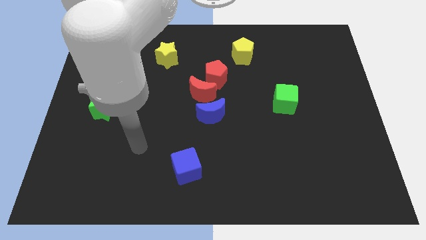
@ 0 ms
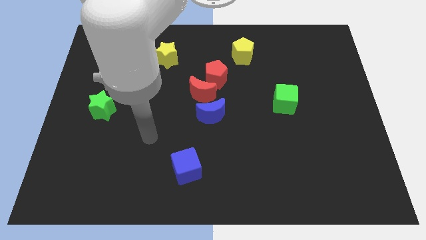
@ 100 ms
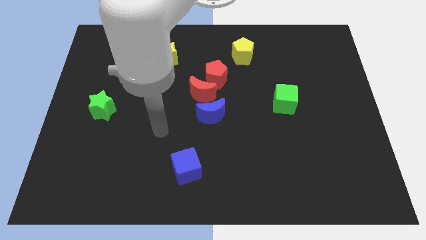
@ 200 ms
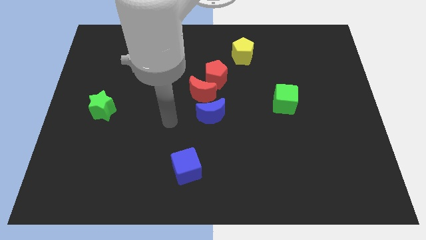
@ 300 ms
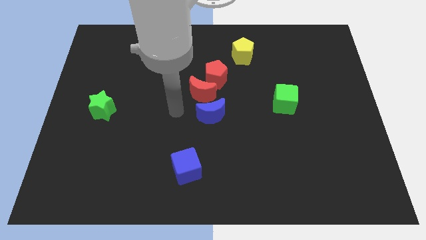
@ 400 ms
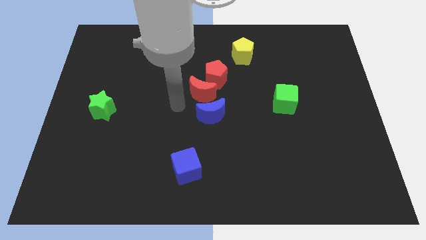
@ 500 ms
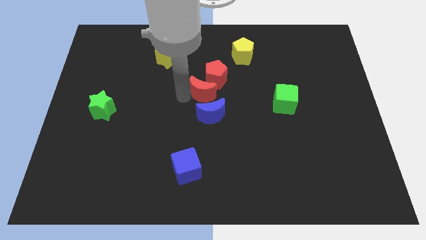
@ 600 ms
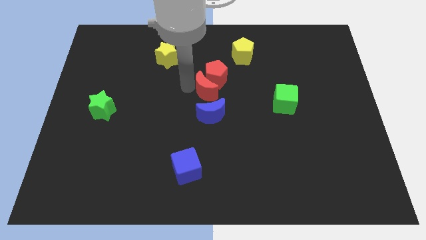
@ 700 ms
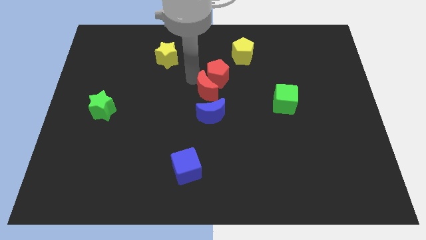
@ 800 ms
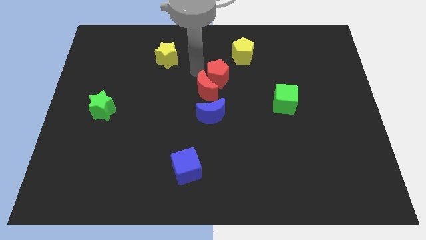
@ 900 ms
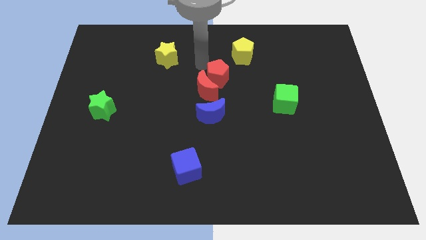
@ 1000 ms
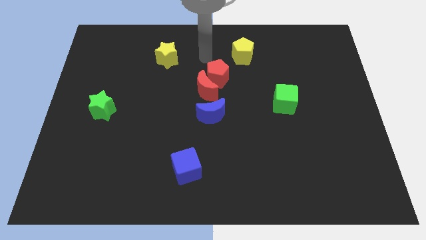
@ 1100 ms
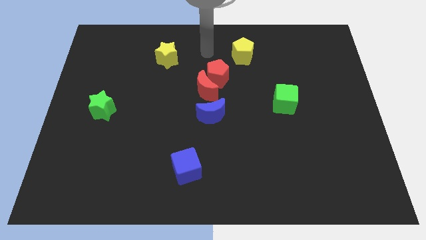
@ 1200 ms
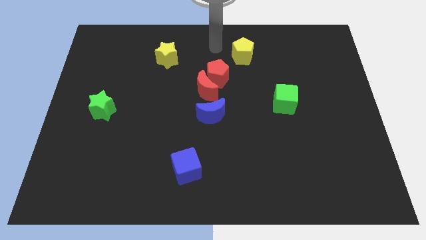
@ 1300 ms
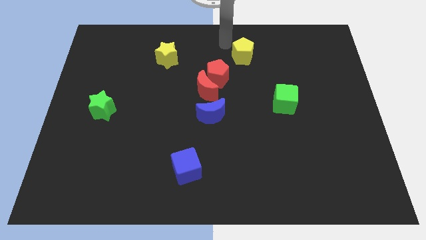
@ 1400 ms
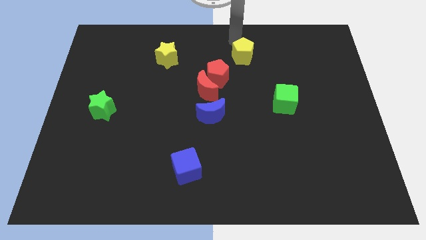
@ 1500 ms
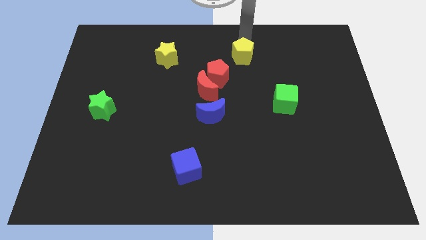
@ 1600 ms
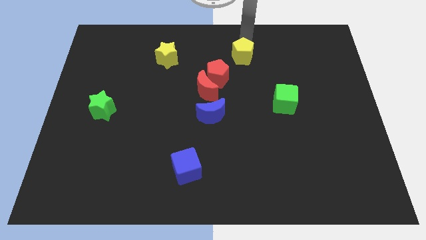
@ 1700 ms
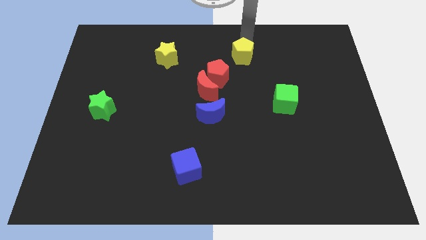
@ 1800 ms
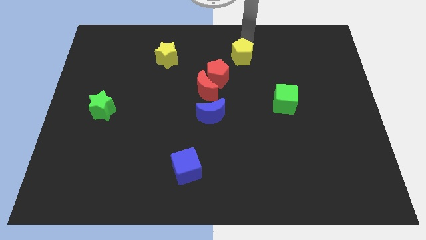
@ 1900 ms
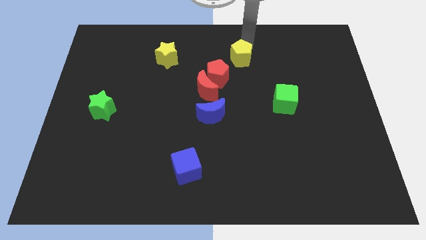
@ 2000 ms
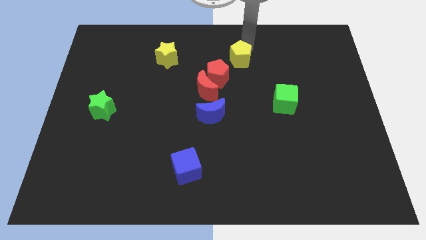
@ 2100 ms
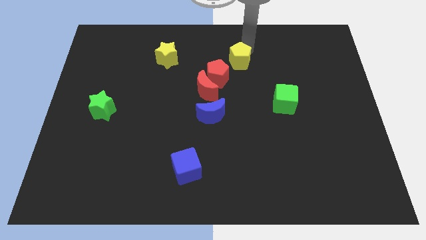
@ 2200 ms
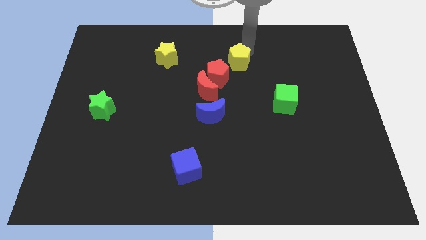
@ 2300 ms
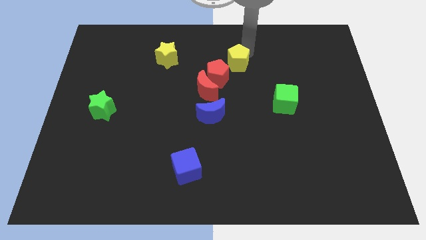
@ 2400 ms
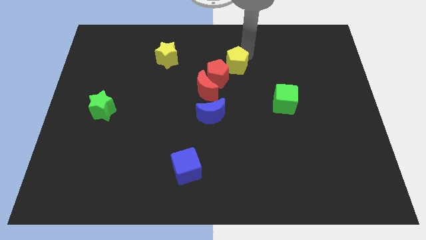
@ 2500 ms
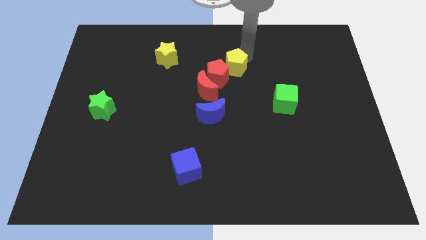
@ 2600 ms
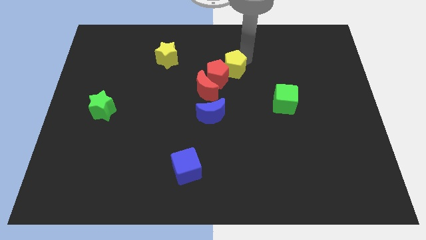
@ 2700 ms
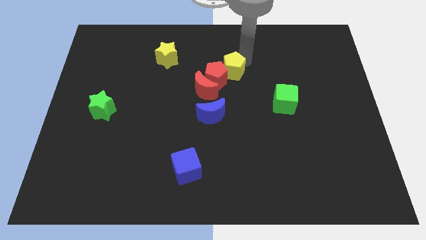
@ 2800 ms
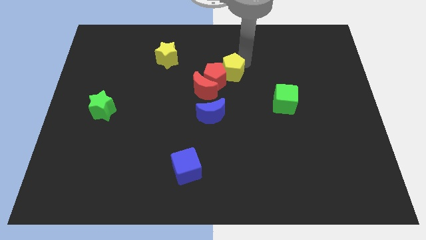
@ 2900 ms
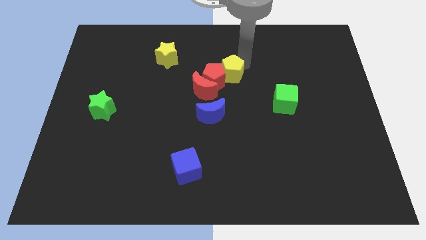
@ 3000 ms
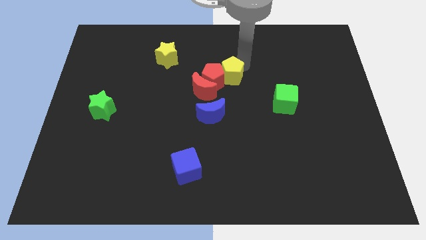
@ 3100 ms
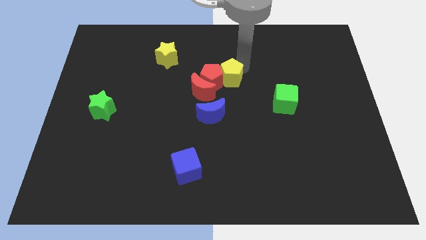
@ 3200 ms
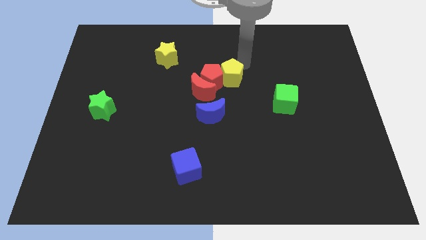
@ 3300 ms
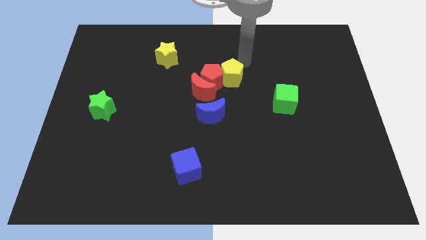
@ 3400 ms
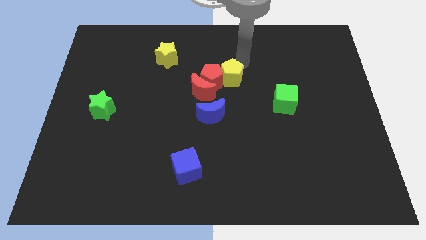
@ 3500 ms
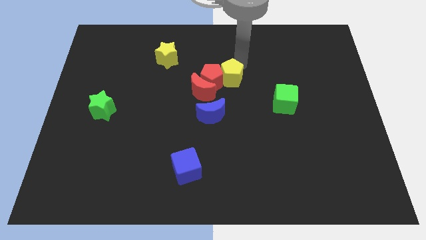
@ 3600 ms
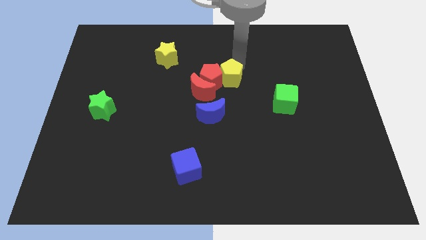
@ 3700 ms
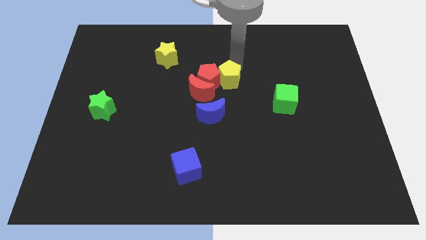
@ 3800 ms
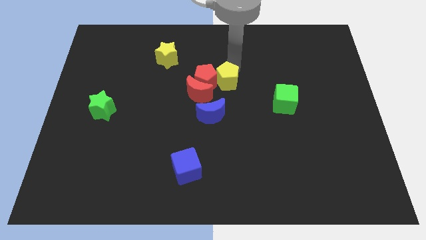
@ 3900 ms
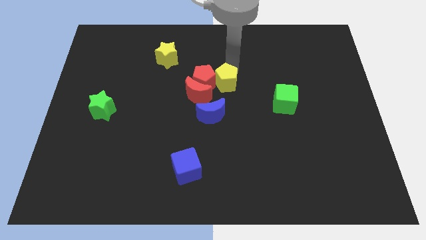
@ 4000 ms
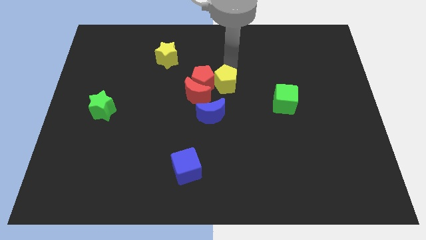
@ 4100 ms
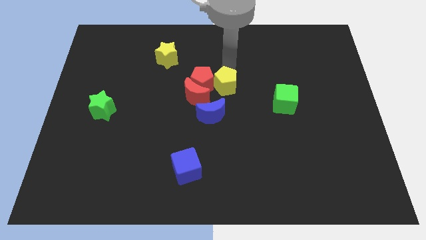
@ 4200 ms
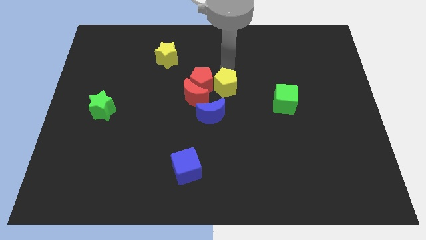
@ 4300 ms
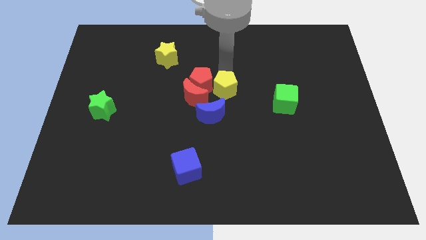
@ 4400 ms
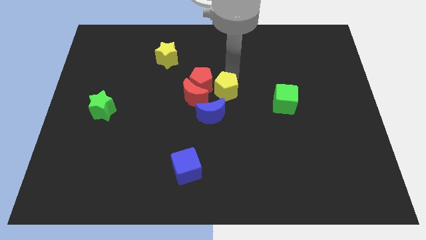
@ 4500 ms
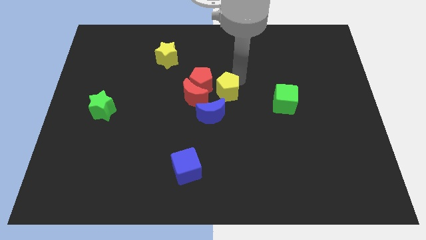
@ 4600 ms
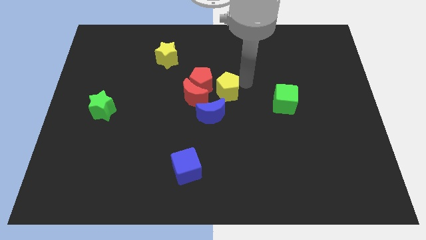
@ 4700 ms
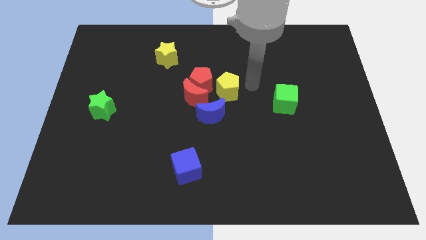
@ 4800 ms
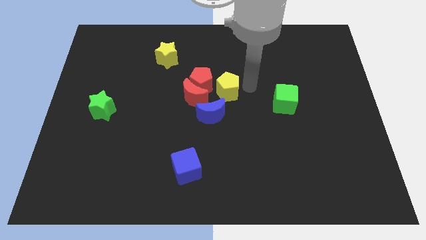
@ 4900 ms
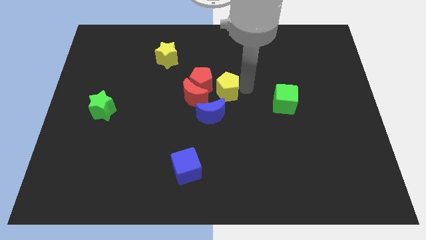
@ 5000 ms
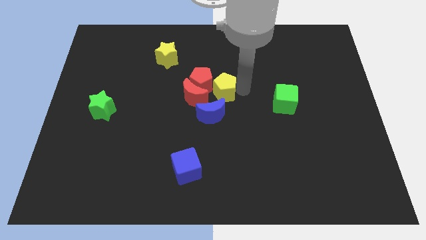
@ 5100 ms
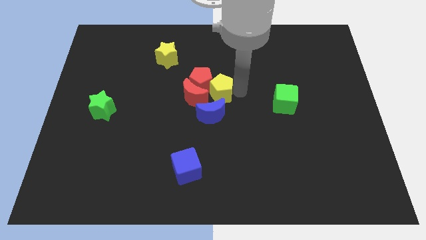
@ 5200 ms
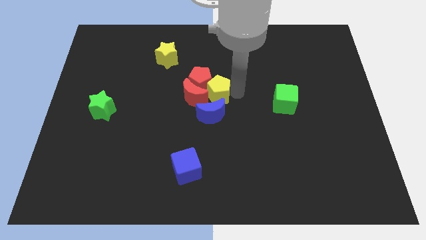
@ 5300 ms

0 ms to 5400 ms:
put the yellow pentagon close to the red moon

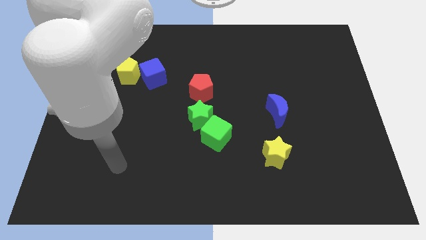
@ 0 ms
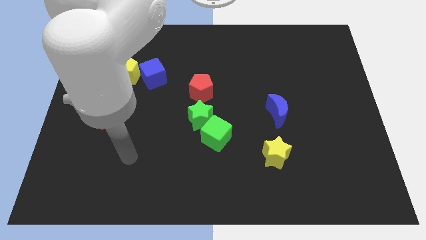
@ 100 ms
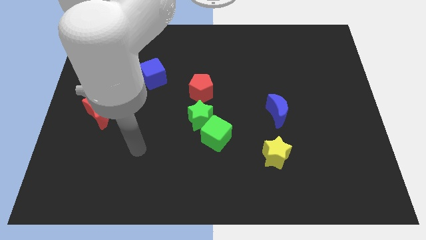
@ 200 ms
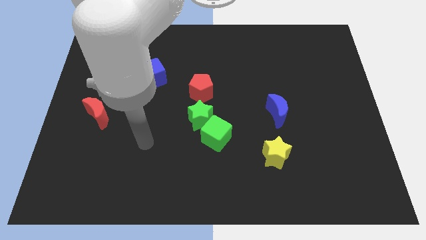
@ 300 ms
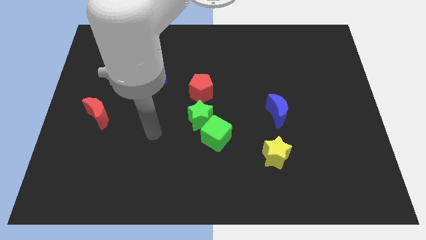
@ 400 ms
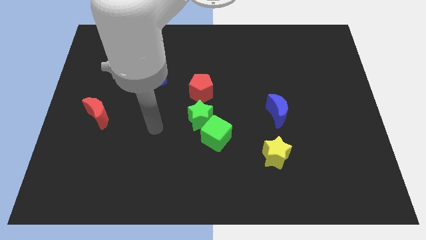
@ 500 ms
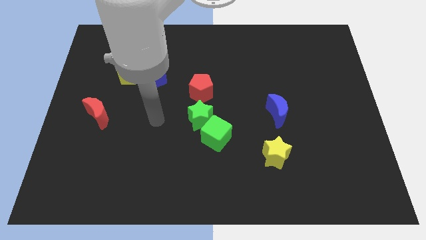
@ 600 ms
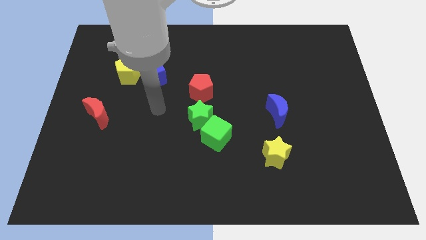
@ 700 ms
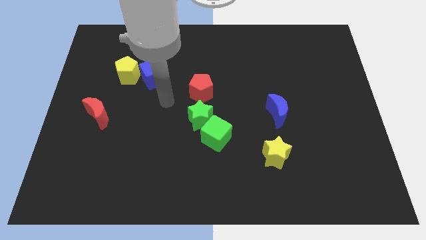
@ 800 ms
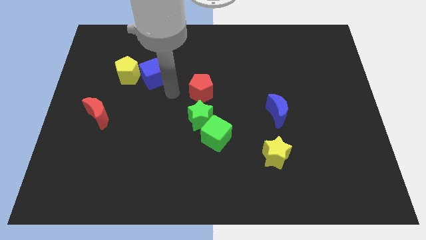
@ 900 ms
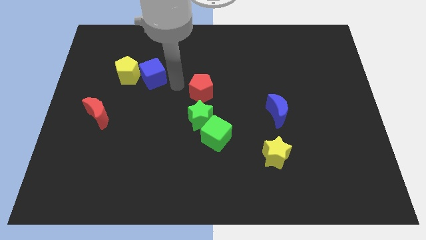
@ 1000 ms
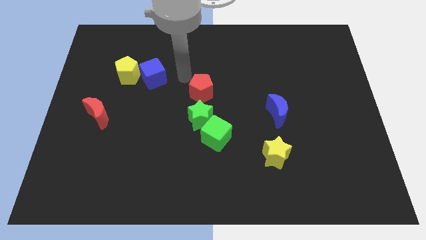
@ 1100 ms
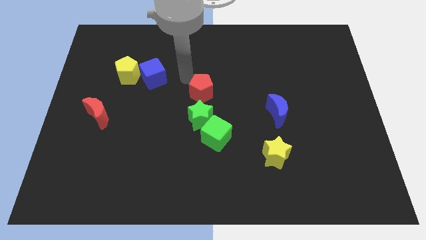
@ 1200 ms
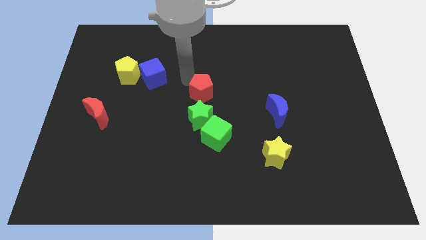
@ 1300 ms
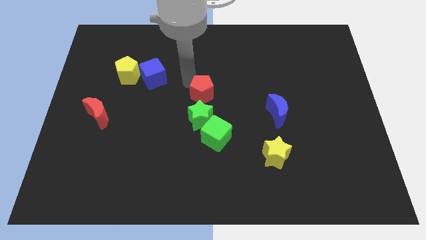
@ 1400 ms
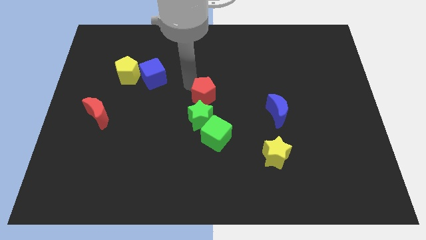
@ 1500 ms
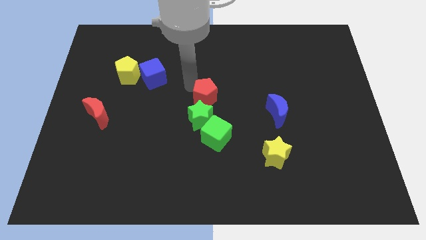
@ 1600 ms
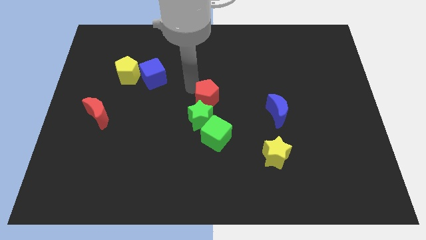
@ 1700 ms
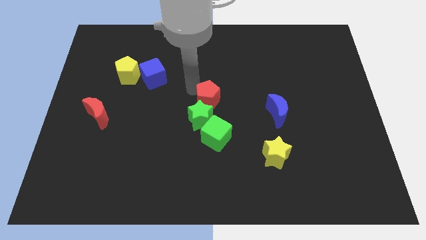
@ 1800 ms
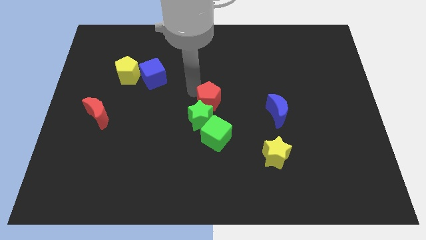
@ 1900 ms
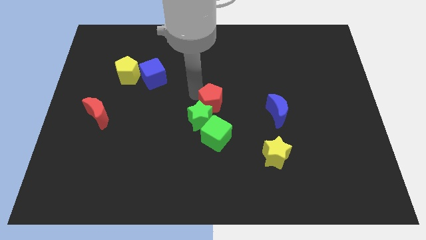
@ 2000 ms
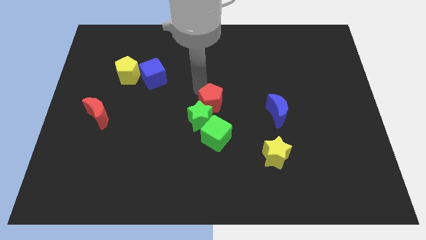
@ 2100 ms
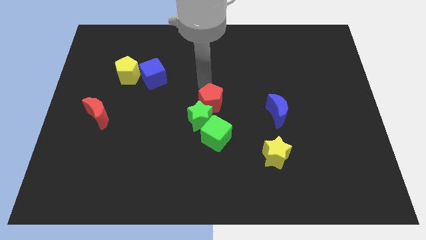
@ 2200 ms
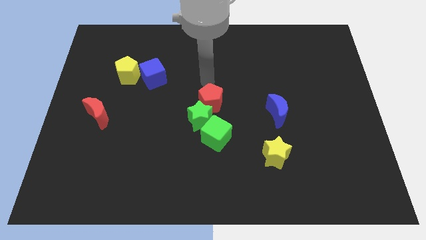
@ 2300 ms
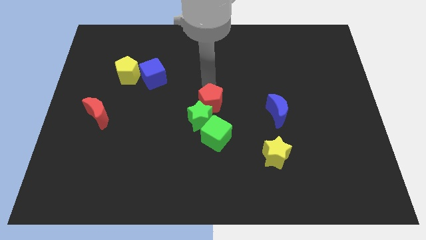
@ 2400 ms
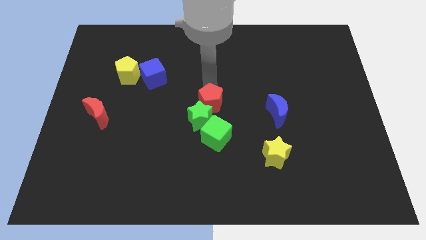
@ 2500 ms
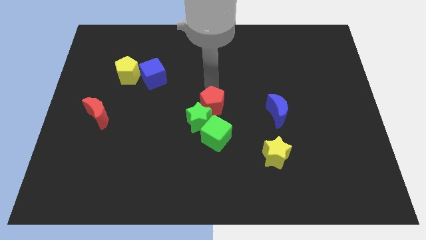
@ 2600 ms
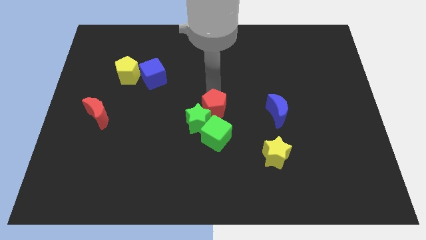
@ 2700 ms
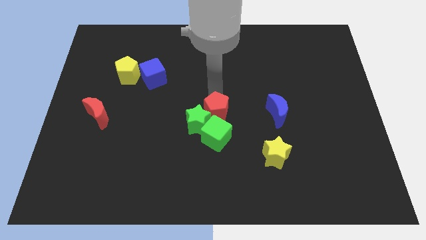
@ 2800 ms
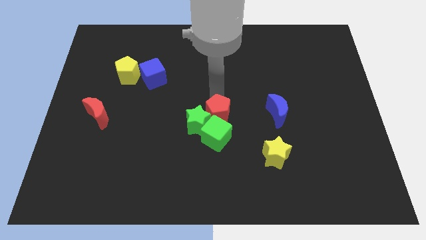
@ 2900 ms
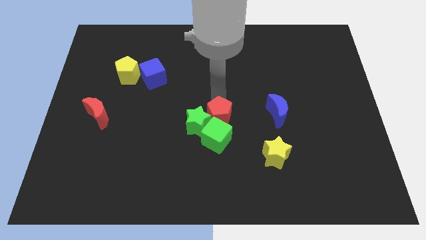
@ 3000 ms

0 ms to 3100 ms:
put the red pentagon to the green cube
